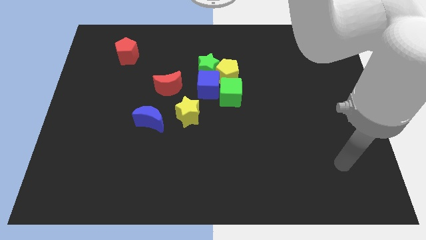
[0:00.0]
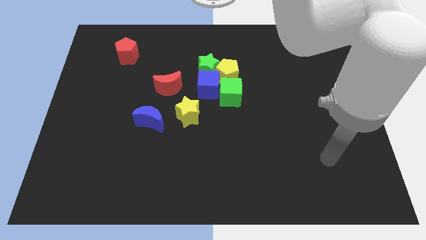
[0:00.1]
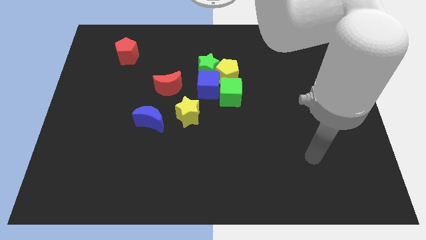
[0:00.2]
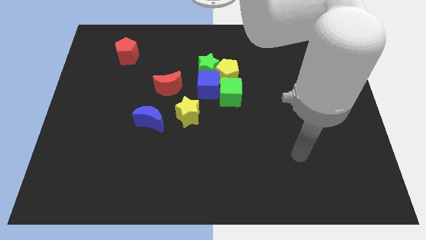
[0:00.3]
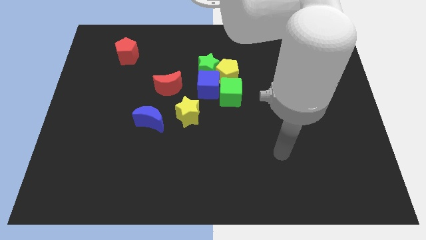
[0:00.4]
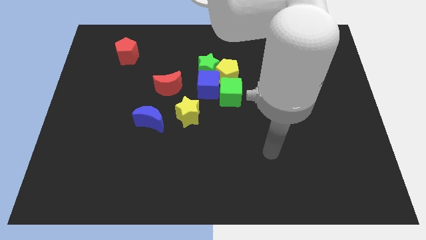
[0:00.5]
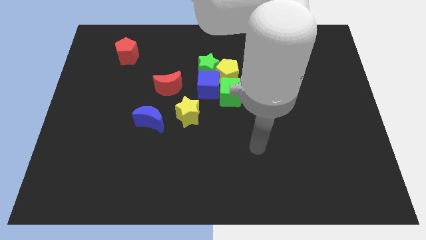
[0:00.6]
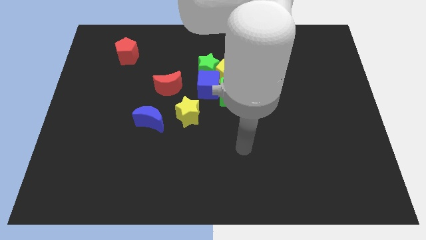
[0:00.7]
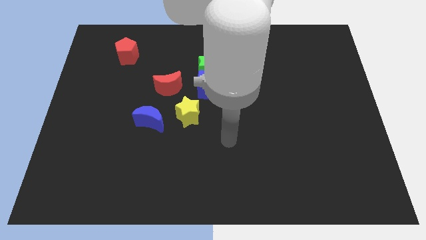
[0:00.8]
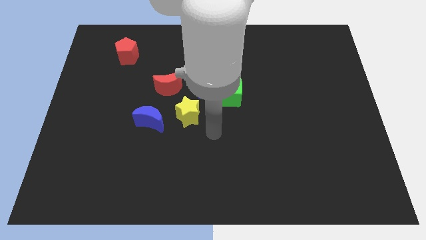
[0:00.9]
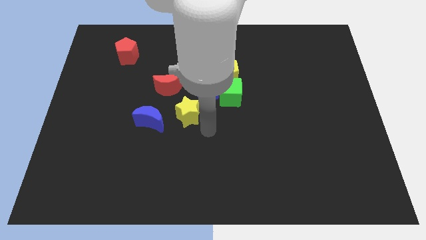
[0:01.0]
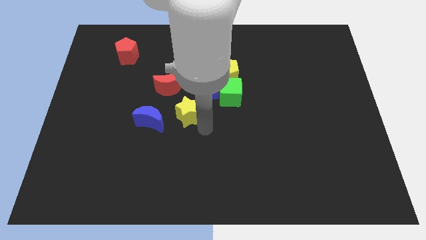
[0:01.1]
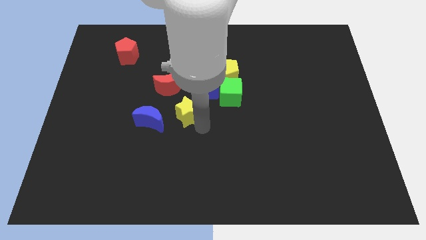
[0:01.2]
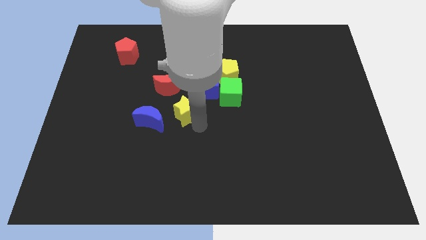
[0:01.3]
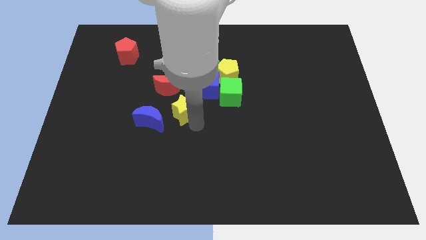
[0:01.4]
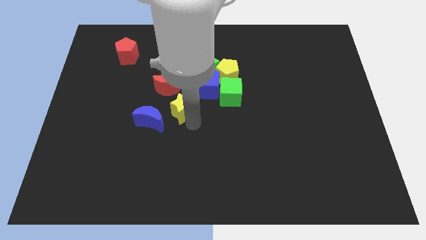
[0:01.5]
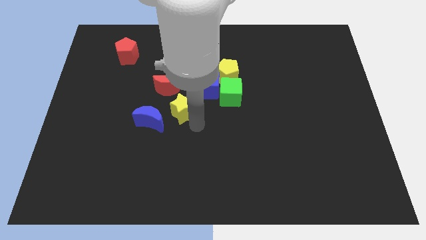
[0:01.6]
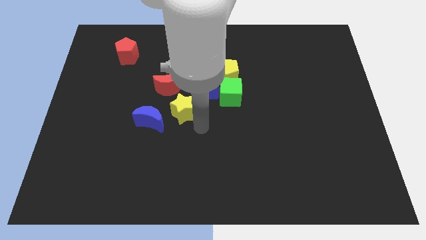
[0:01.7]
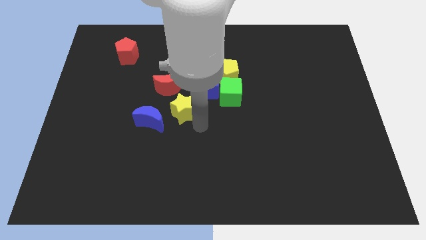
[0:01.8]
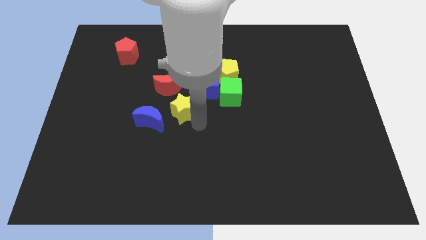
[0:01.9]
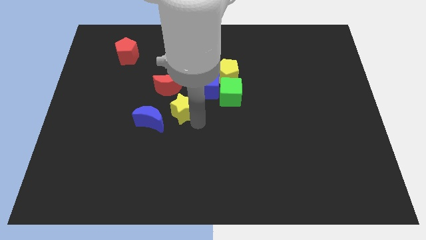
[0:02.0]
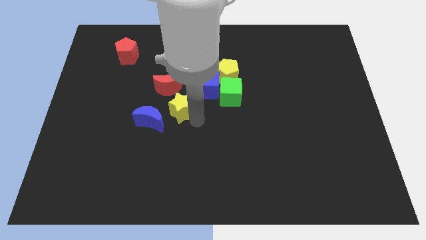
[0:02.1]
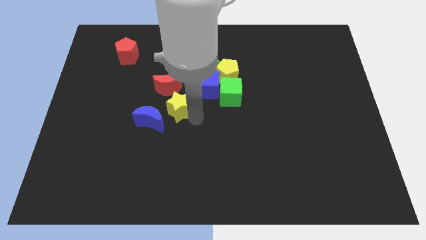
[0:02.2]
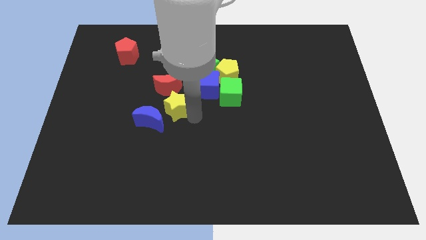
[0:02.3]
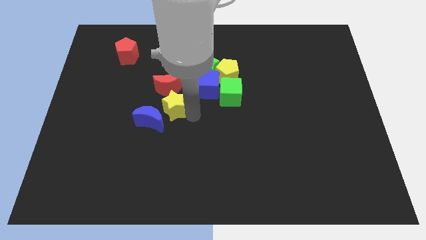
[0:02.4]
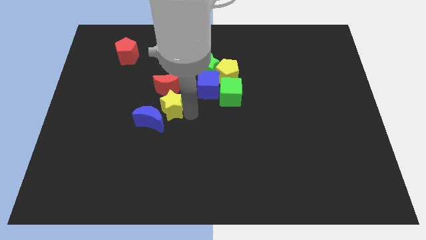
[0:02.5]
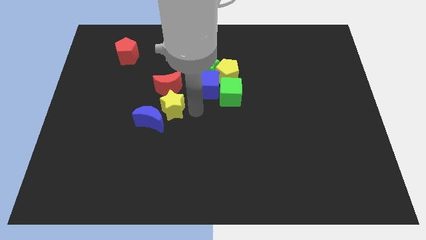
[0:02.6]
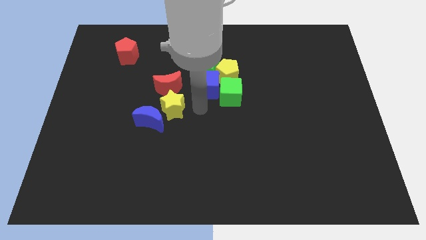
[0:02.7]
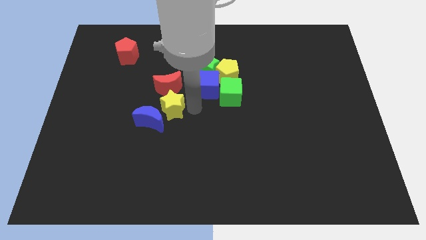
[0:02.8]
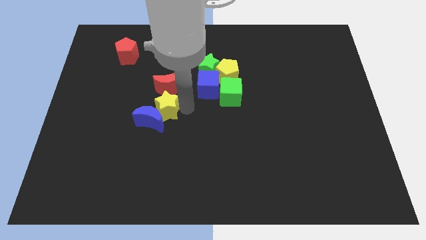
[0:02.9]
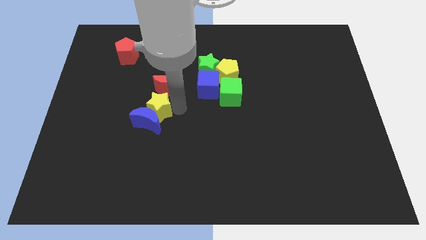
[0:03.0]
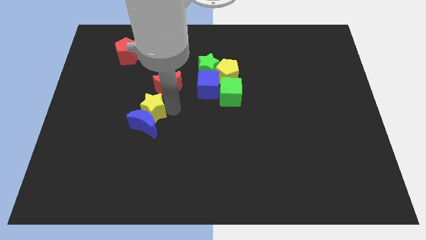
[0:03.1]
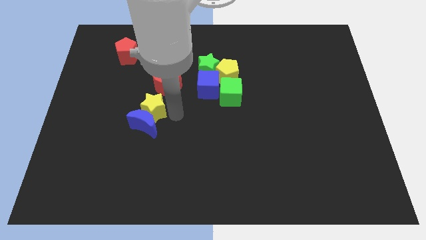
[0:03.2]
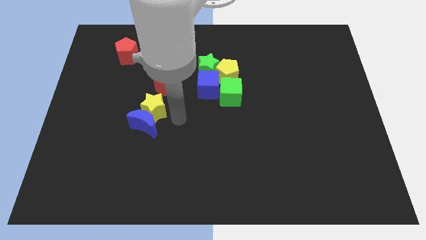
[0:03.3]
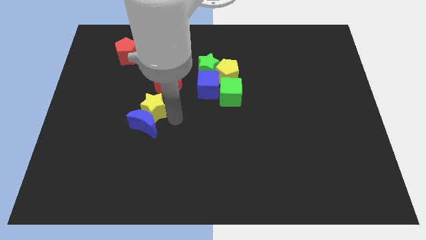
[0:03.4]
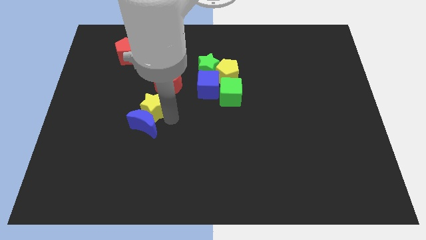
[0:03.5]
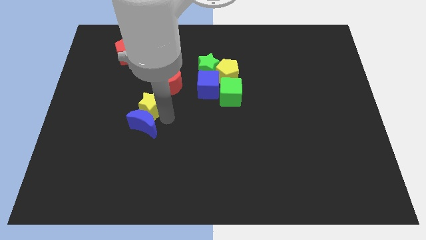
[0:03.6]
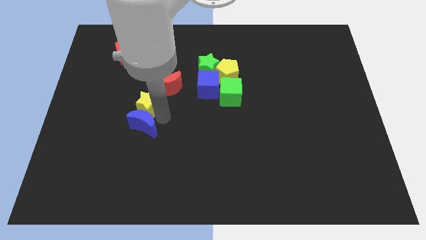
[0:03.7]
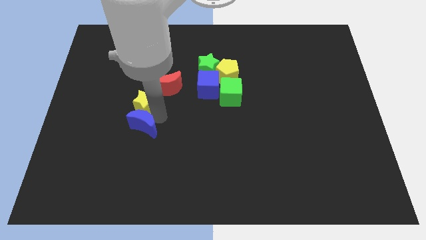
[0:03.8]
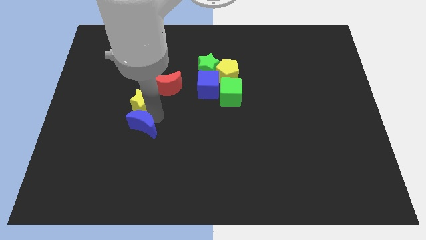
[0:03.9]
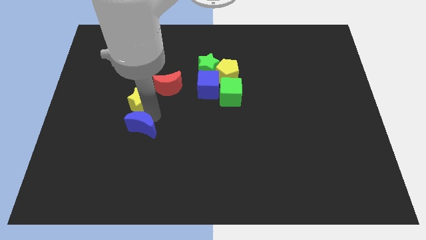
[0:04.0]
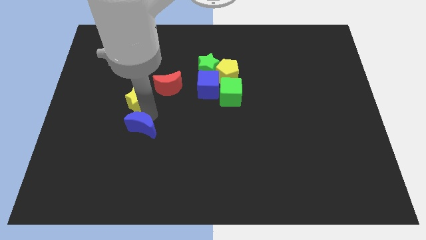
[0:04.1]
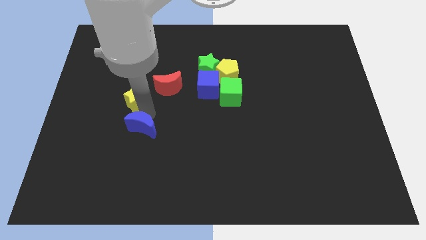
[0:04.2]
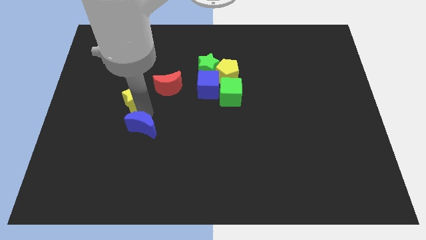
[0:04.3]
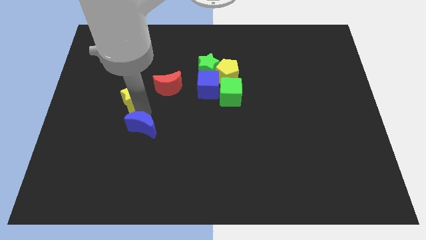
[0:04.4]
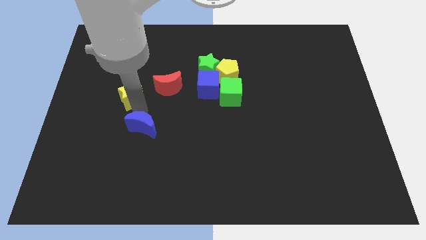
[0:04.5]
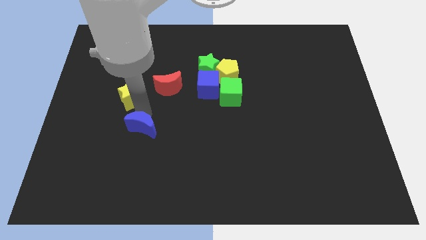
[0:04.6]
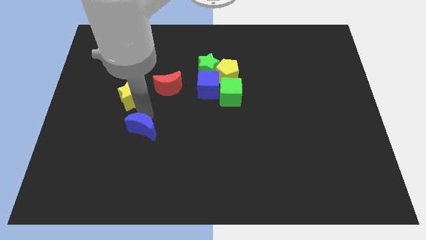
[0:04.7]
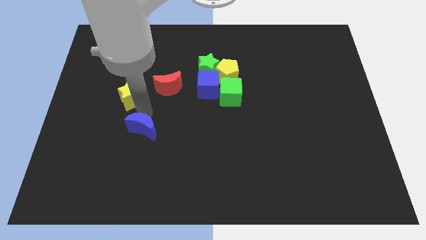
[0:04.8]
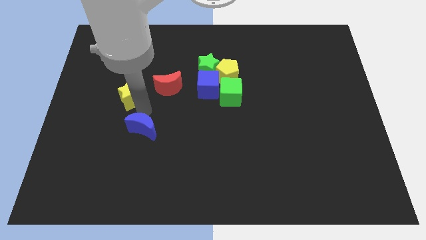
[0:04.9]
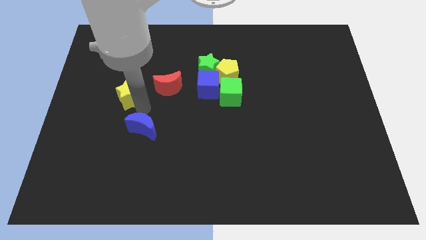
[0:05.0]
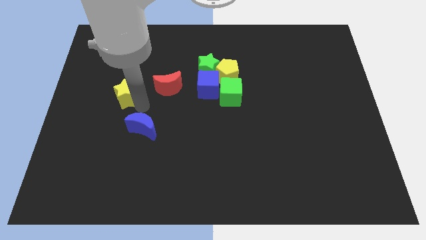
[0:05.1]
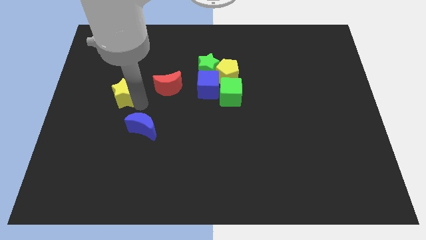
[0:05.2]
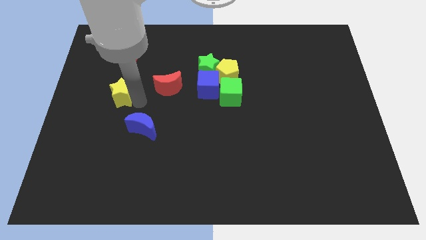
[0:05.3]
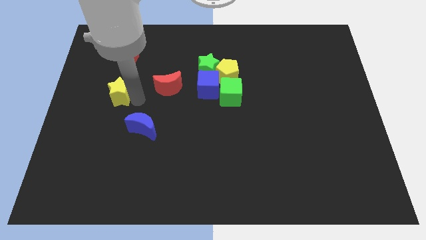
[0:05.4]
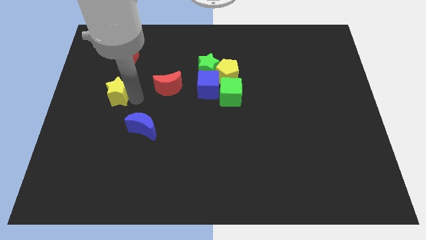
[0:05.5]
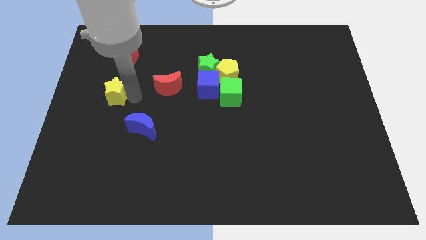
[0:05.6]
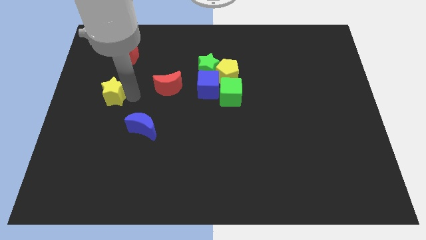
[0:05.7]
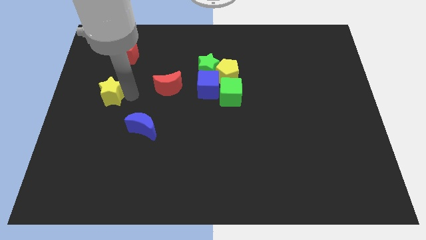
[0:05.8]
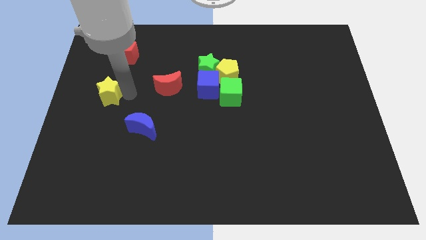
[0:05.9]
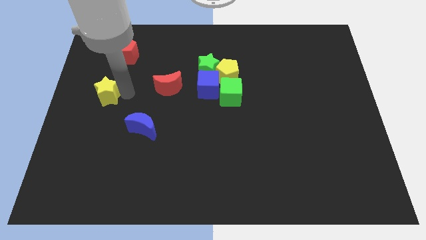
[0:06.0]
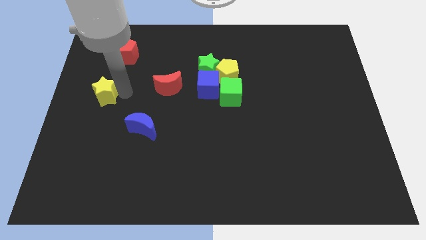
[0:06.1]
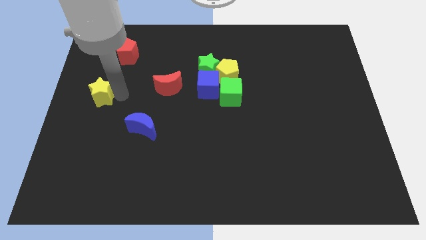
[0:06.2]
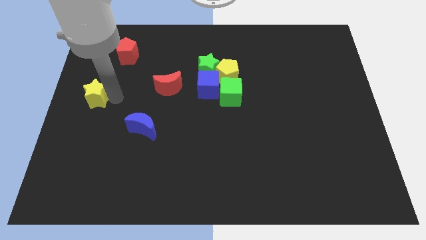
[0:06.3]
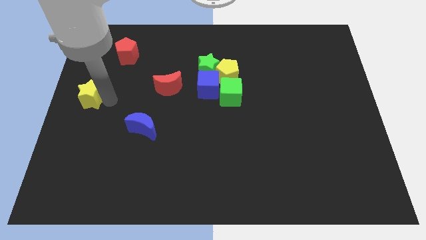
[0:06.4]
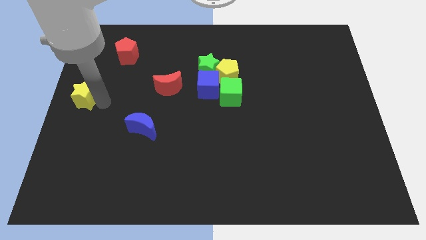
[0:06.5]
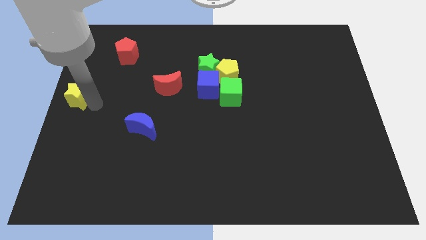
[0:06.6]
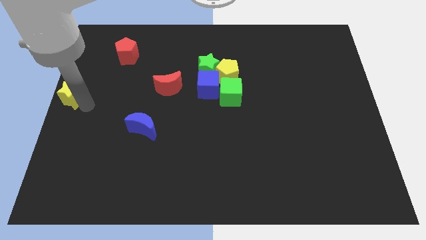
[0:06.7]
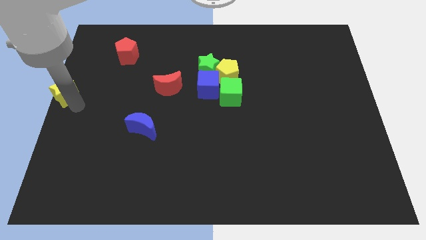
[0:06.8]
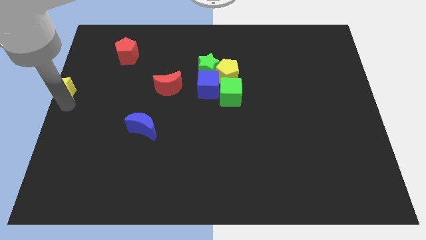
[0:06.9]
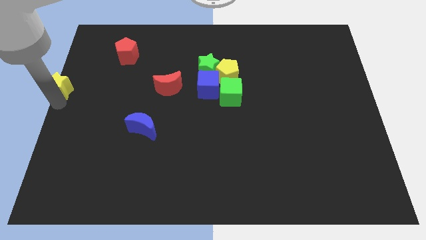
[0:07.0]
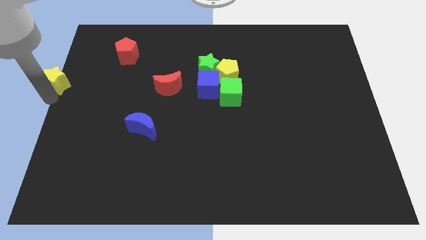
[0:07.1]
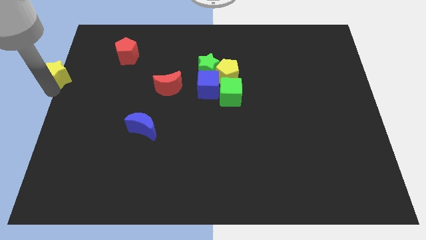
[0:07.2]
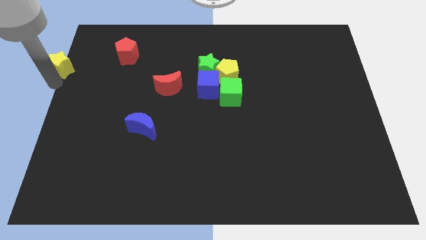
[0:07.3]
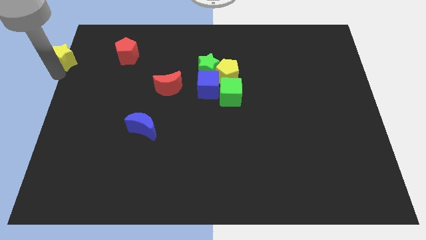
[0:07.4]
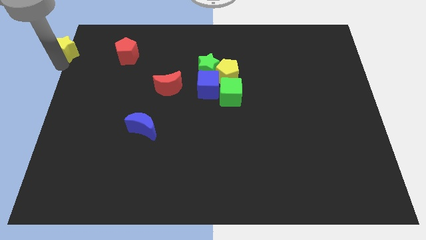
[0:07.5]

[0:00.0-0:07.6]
push the yellow star to the upper left corner
